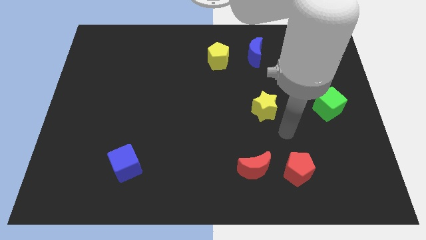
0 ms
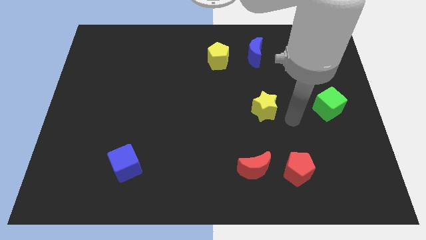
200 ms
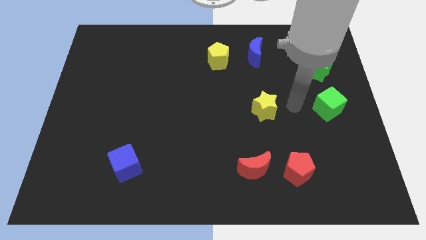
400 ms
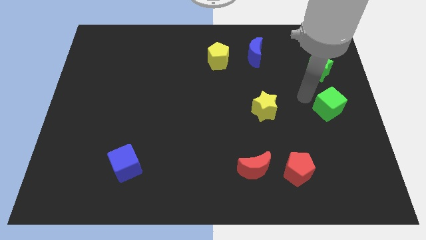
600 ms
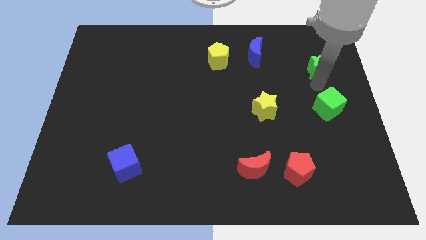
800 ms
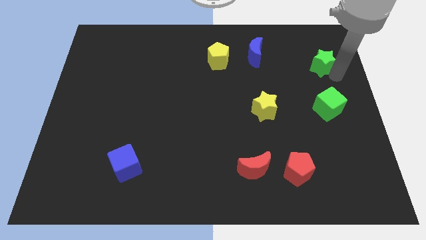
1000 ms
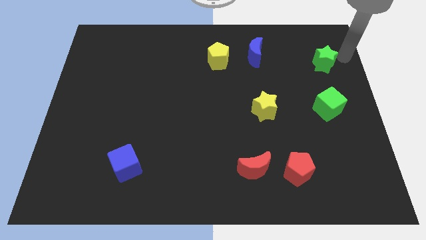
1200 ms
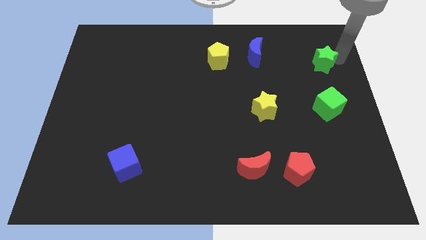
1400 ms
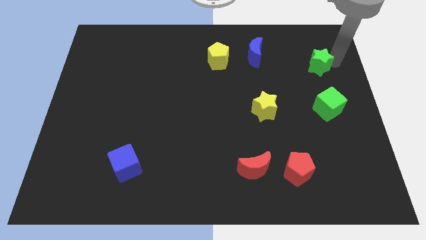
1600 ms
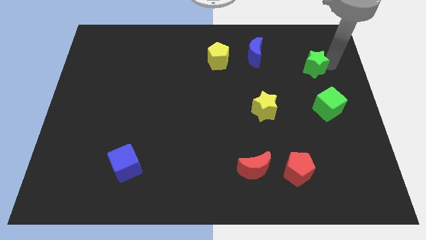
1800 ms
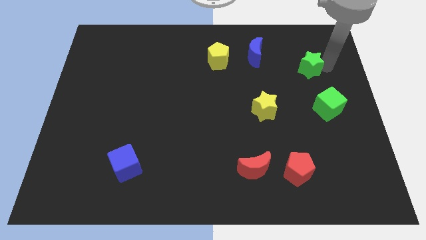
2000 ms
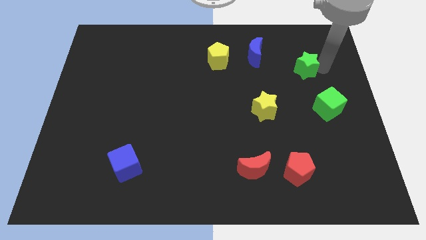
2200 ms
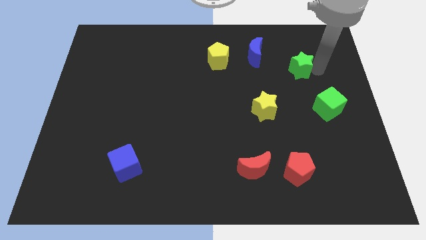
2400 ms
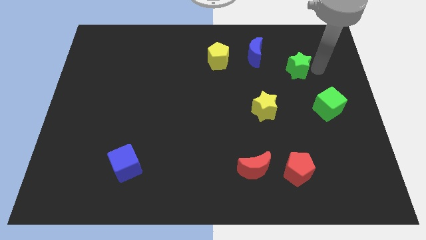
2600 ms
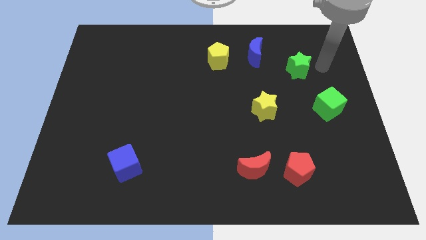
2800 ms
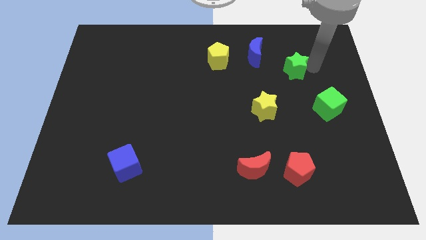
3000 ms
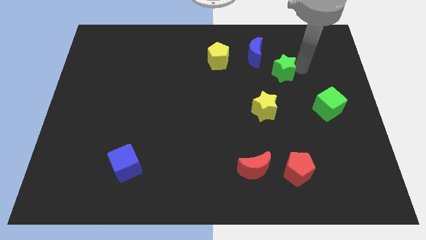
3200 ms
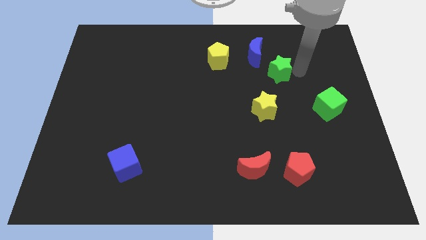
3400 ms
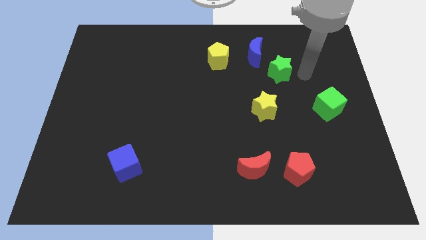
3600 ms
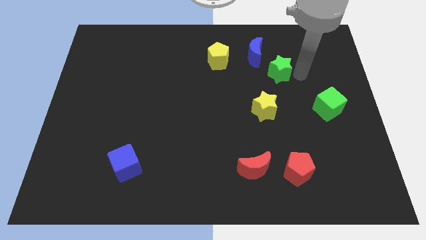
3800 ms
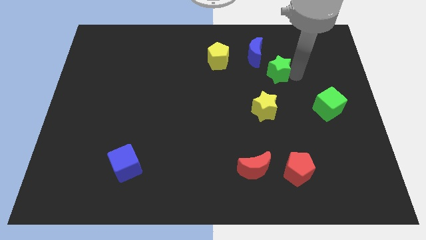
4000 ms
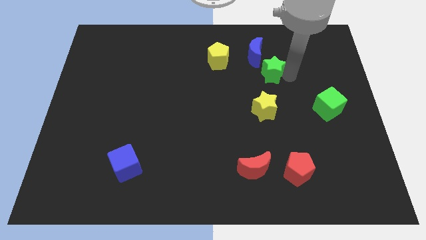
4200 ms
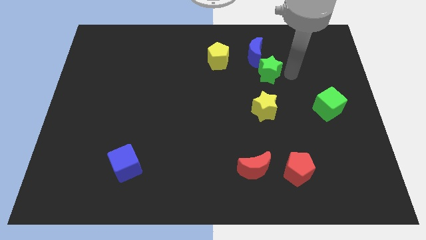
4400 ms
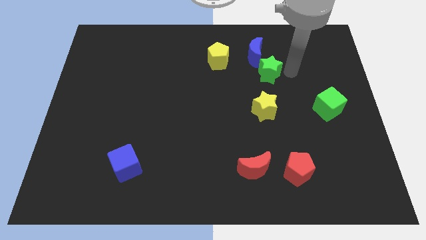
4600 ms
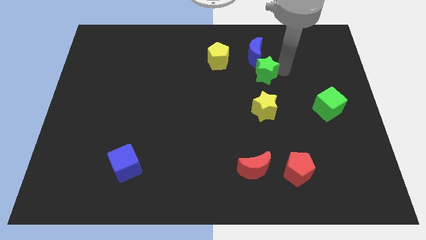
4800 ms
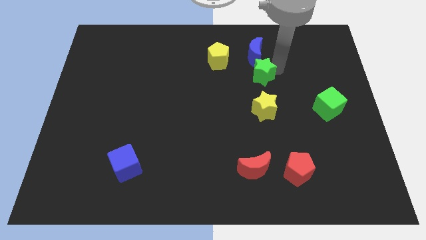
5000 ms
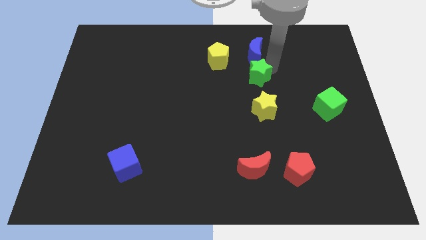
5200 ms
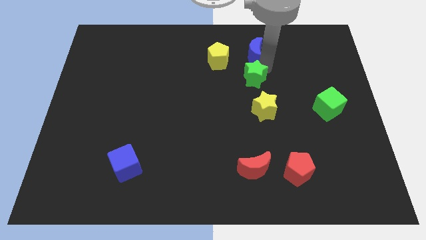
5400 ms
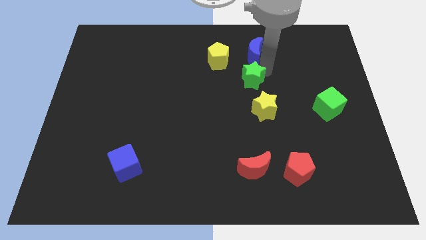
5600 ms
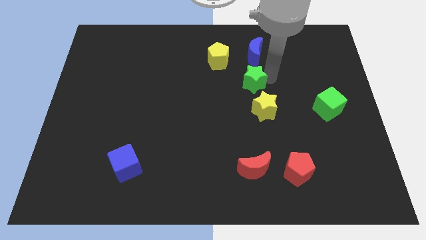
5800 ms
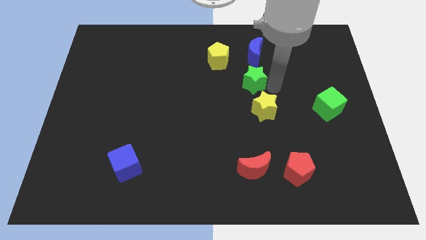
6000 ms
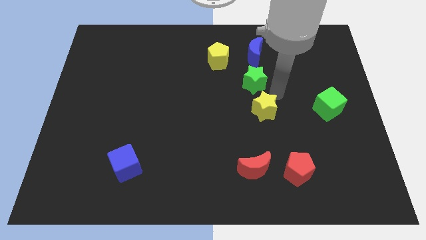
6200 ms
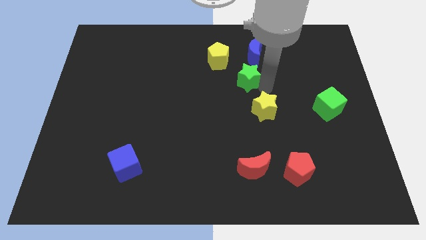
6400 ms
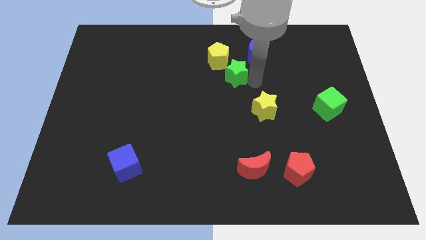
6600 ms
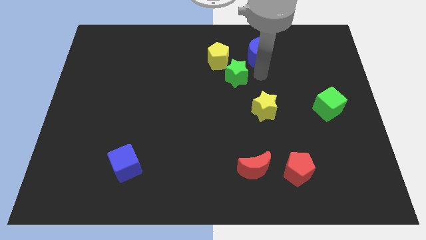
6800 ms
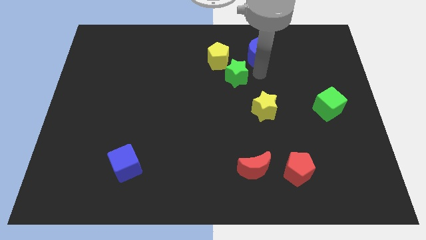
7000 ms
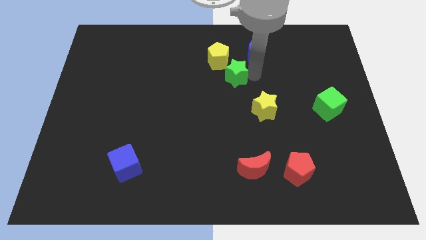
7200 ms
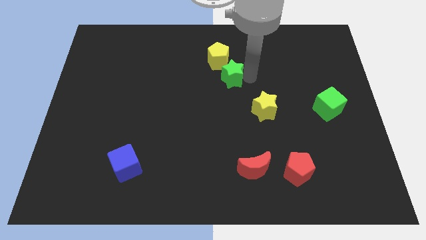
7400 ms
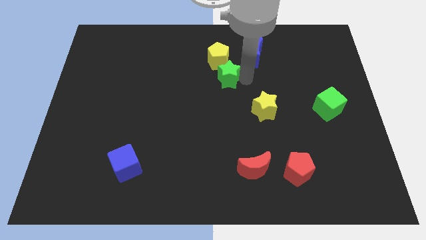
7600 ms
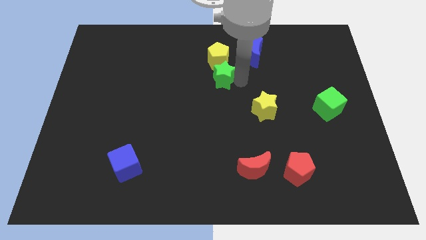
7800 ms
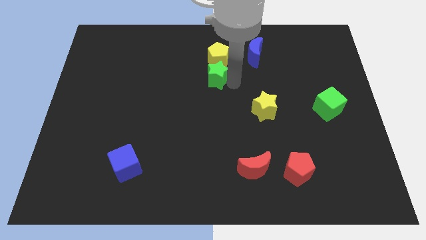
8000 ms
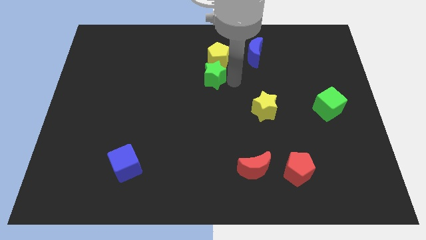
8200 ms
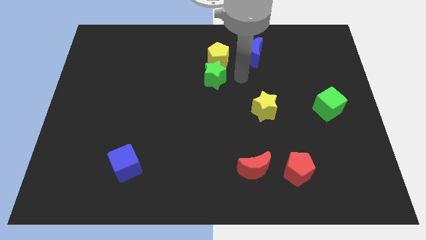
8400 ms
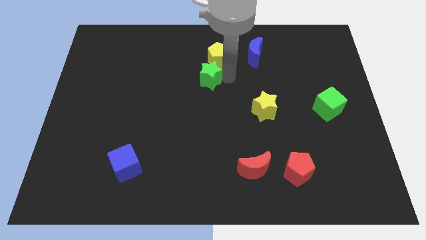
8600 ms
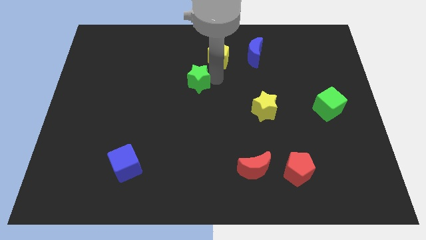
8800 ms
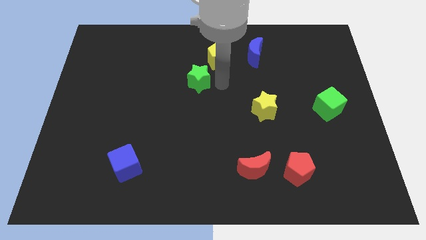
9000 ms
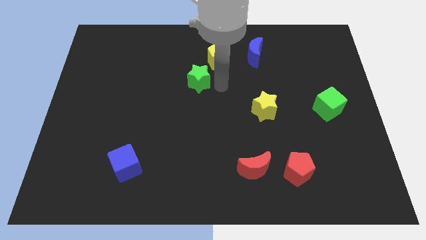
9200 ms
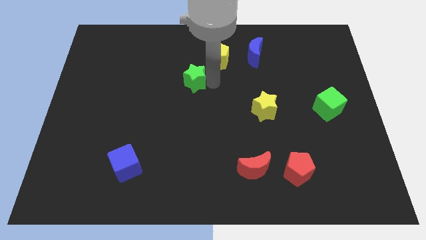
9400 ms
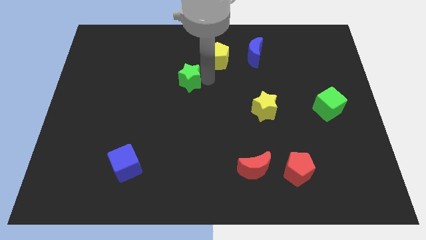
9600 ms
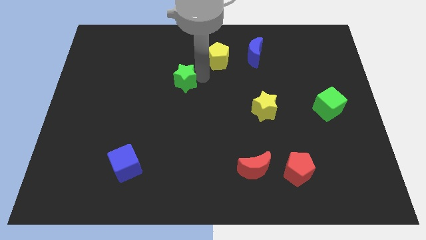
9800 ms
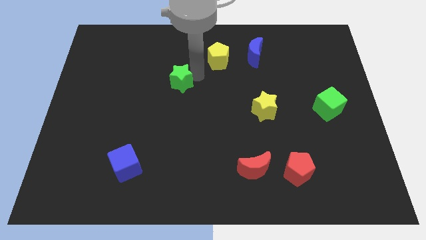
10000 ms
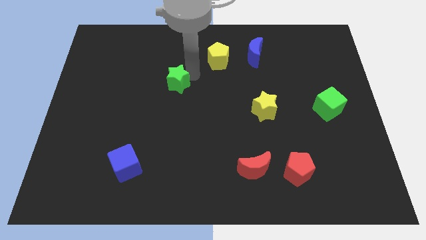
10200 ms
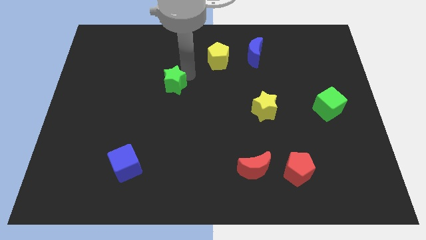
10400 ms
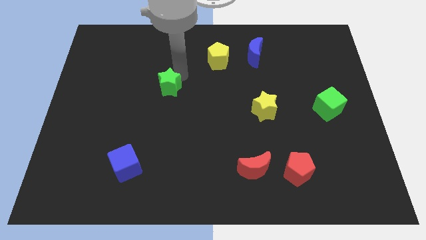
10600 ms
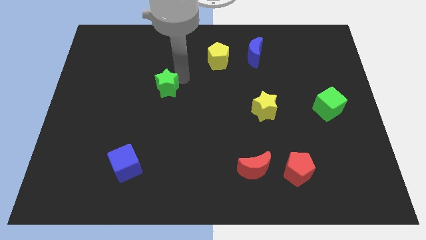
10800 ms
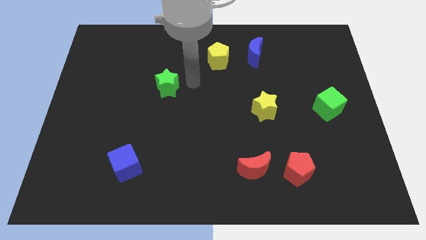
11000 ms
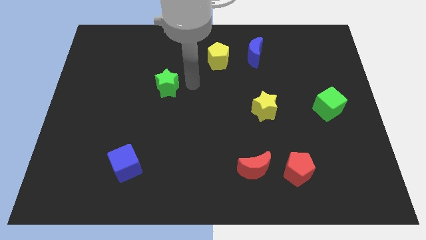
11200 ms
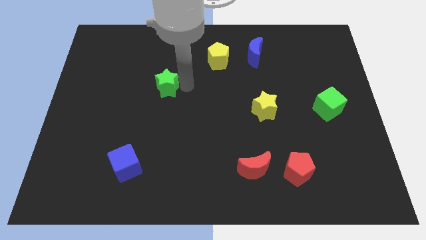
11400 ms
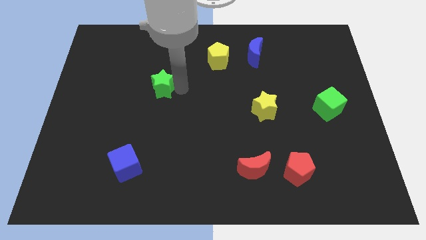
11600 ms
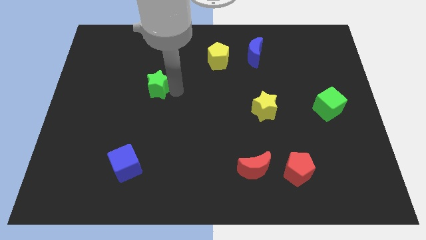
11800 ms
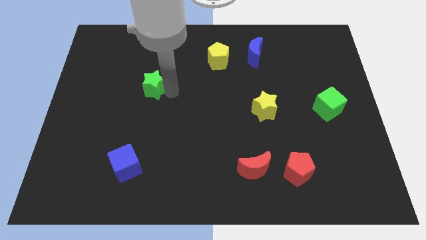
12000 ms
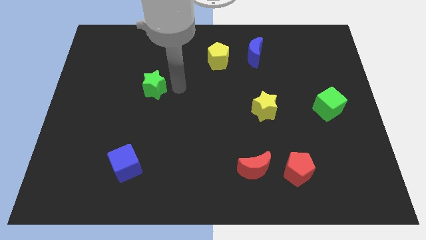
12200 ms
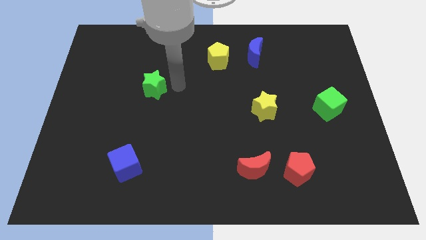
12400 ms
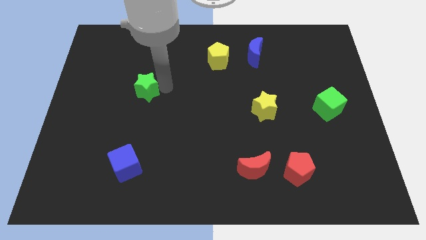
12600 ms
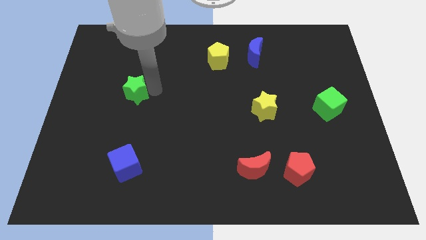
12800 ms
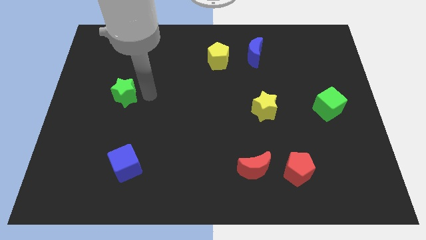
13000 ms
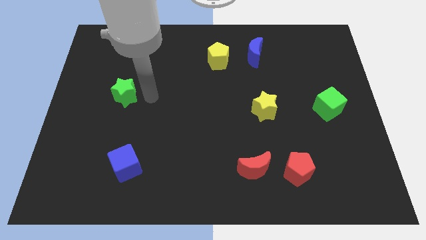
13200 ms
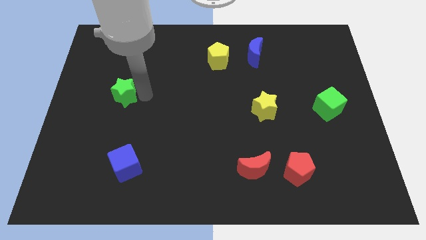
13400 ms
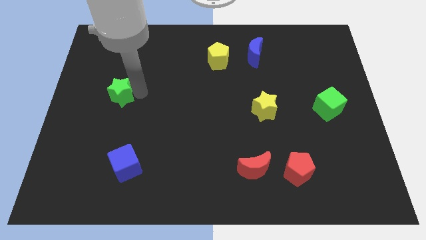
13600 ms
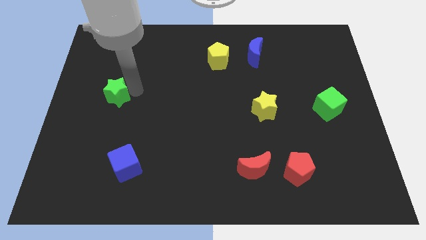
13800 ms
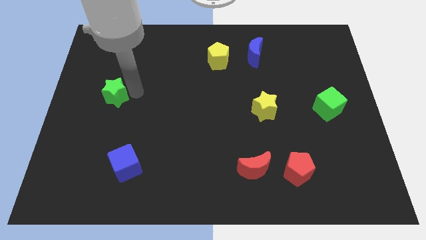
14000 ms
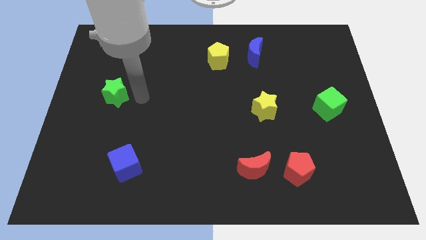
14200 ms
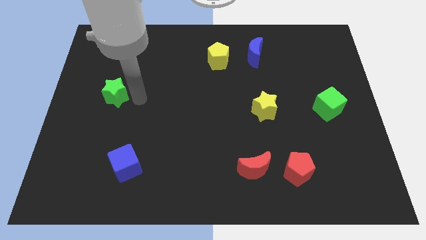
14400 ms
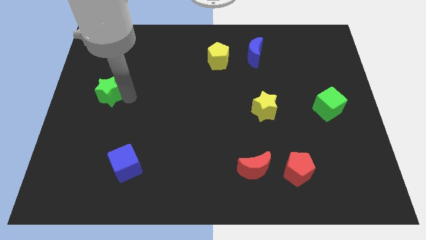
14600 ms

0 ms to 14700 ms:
move the green star to the left side
